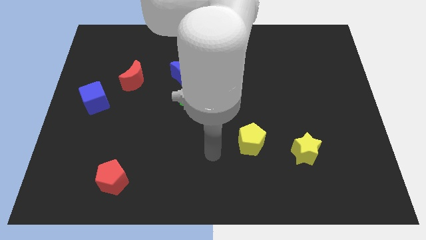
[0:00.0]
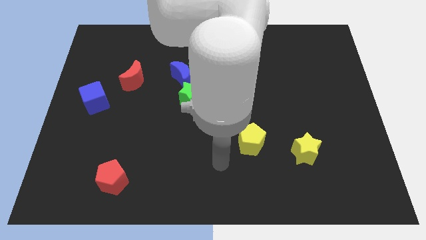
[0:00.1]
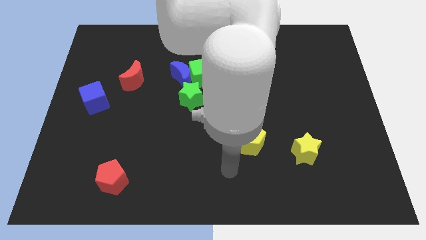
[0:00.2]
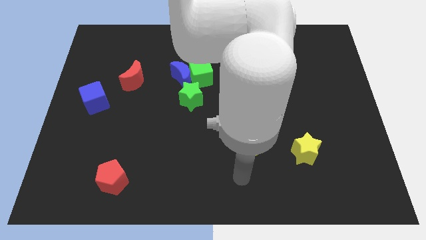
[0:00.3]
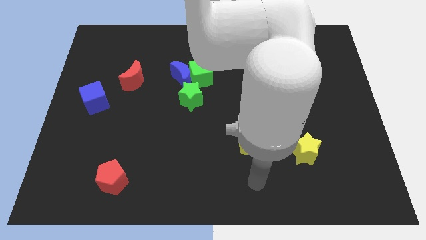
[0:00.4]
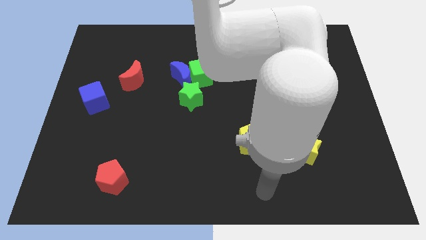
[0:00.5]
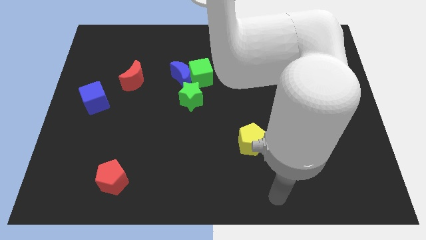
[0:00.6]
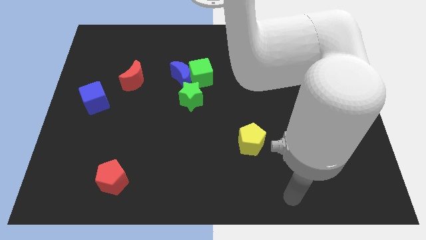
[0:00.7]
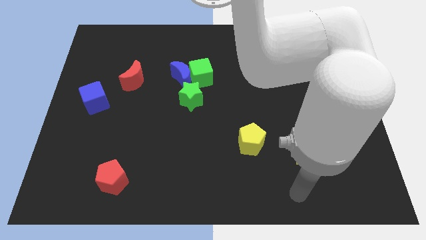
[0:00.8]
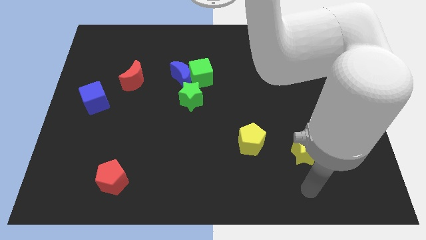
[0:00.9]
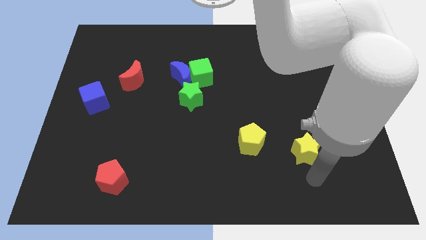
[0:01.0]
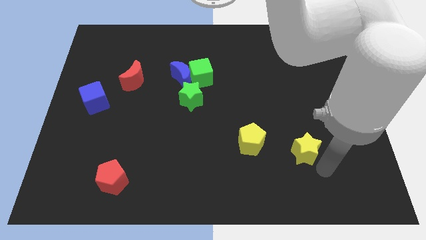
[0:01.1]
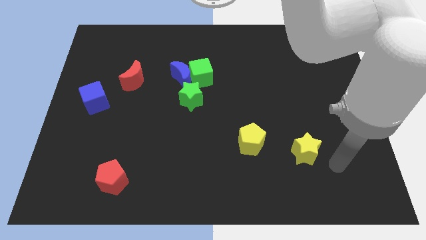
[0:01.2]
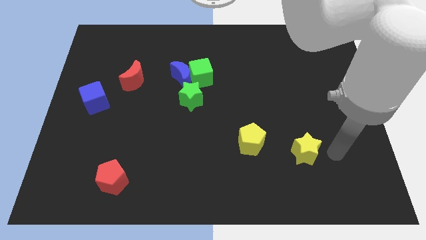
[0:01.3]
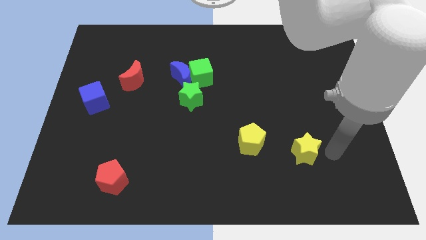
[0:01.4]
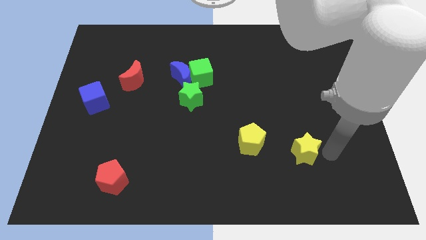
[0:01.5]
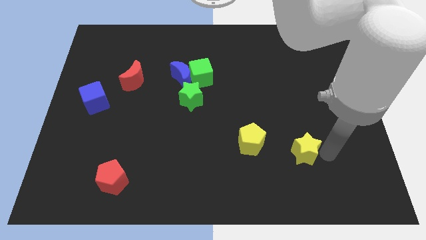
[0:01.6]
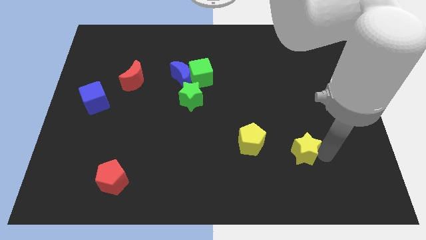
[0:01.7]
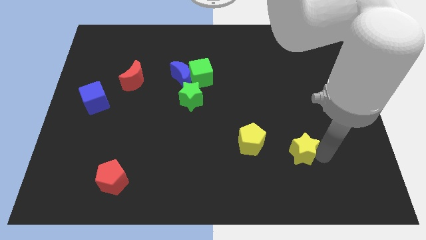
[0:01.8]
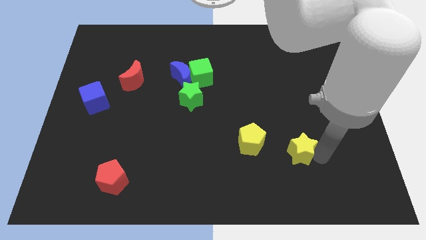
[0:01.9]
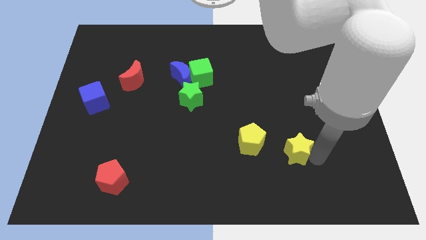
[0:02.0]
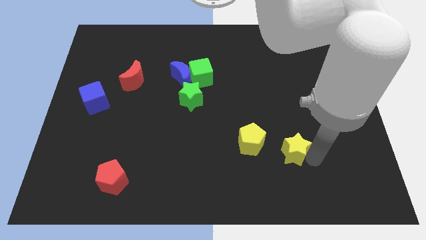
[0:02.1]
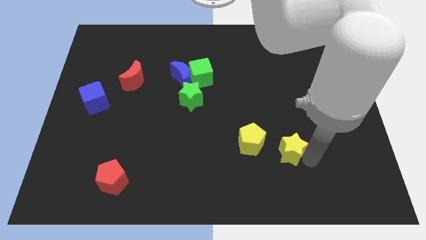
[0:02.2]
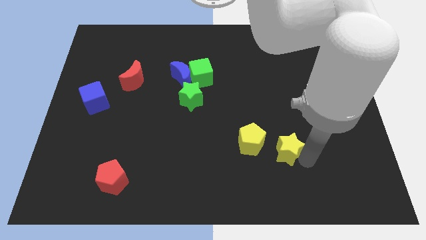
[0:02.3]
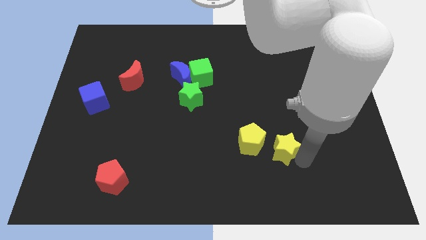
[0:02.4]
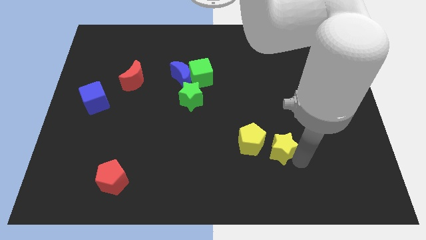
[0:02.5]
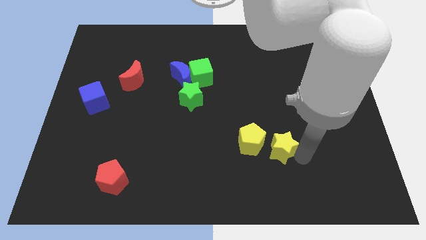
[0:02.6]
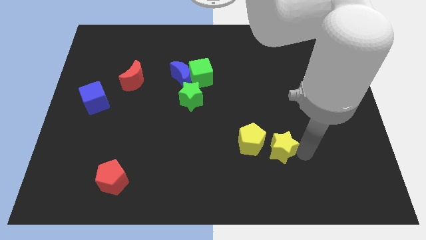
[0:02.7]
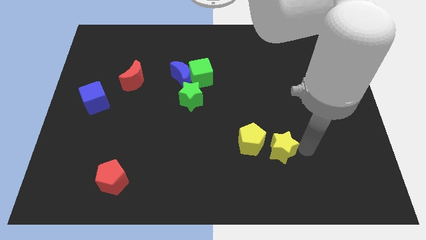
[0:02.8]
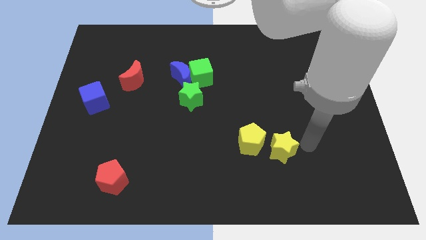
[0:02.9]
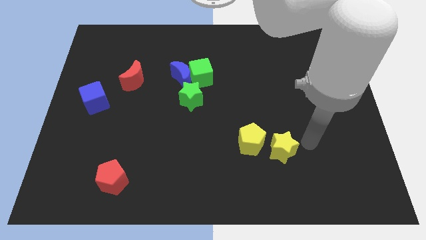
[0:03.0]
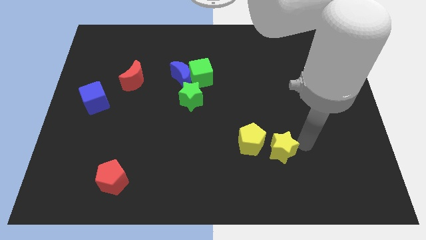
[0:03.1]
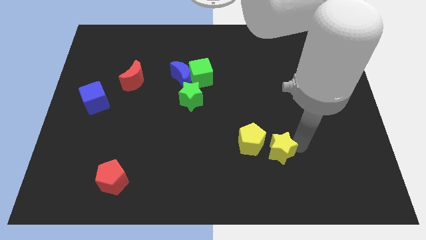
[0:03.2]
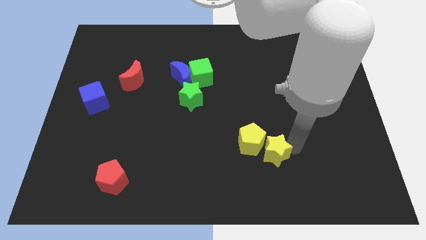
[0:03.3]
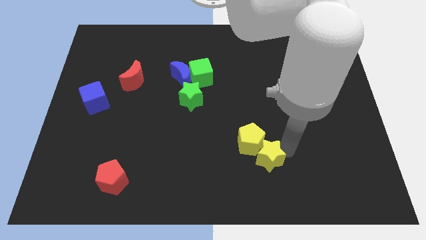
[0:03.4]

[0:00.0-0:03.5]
slide the yellow star left slightly

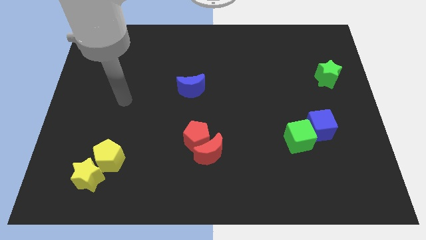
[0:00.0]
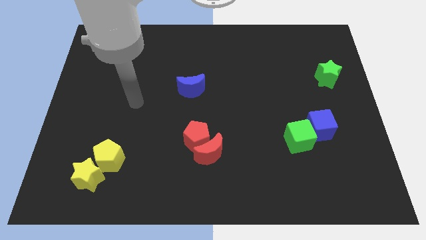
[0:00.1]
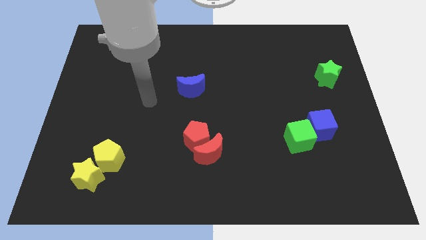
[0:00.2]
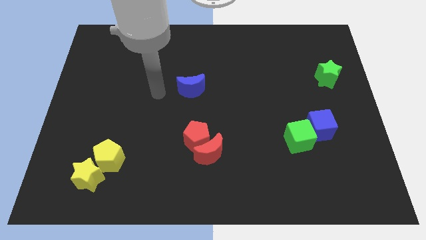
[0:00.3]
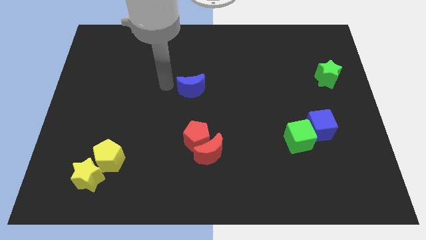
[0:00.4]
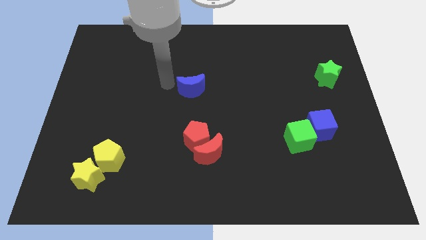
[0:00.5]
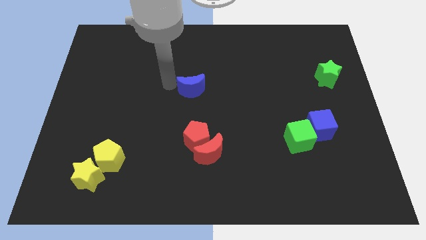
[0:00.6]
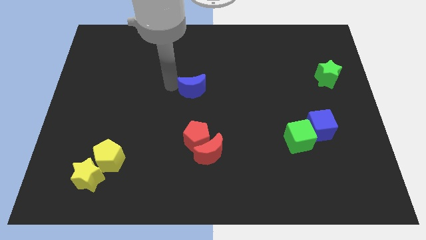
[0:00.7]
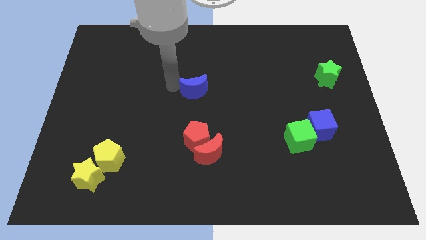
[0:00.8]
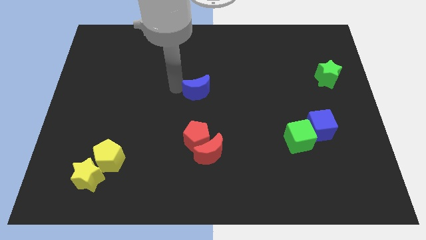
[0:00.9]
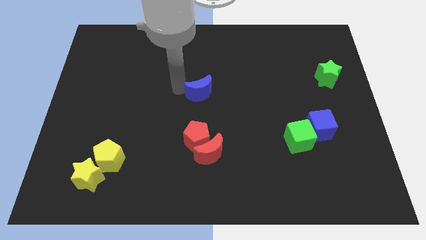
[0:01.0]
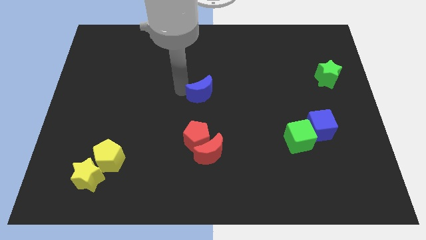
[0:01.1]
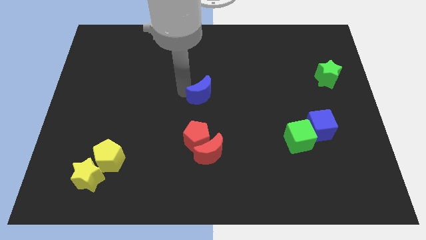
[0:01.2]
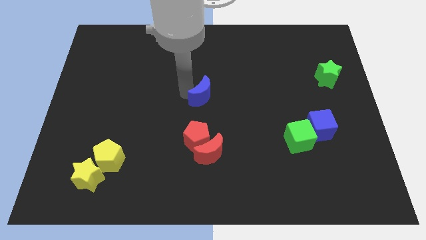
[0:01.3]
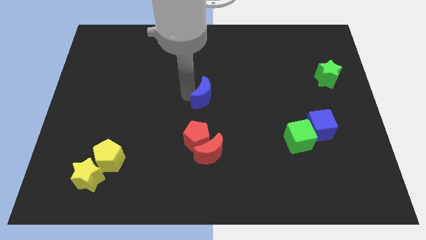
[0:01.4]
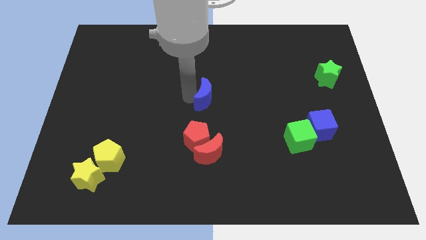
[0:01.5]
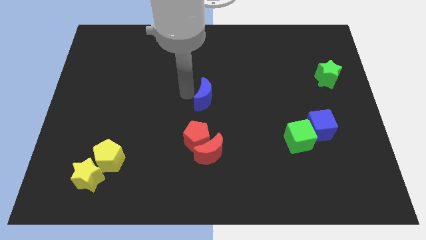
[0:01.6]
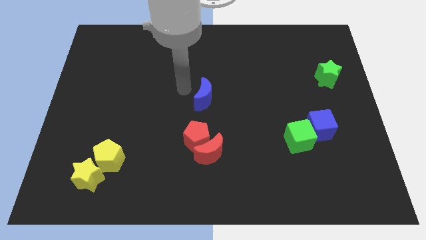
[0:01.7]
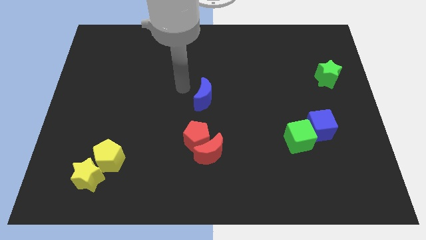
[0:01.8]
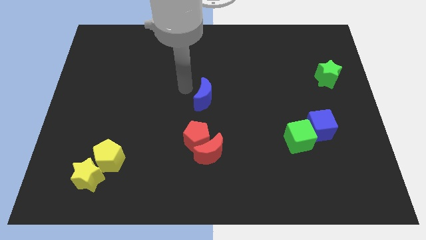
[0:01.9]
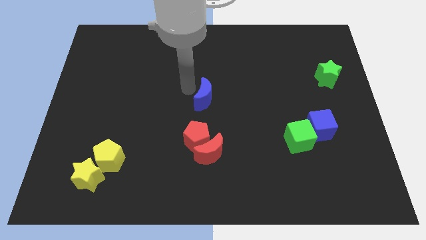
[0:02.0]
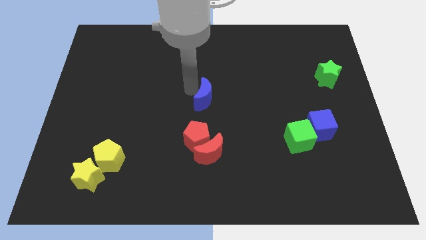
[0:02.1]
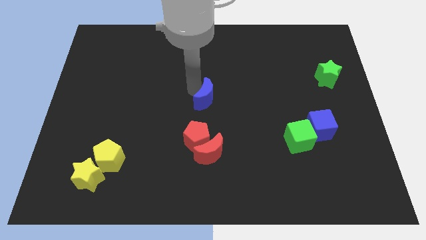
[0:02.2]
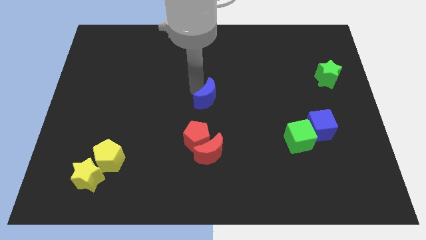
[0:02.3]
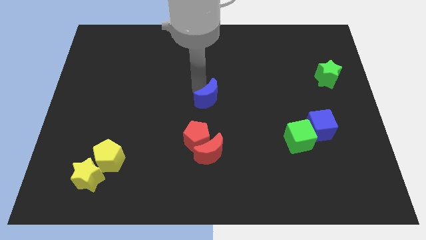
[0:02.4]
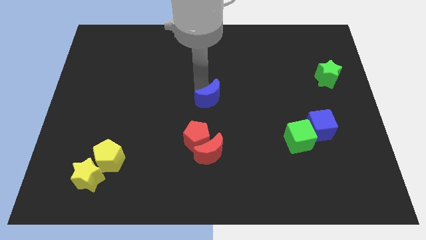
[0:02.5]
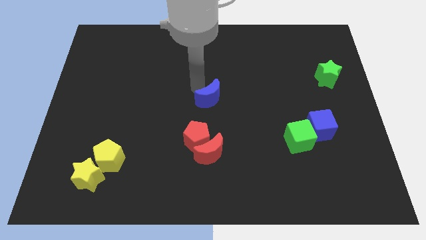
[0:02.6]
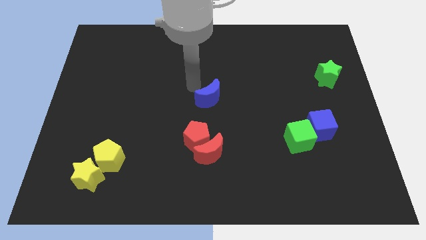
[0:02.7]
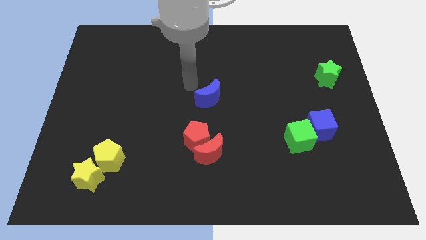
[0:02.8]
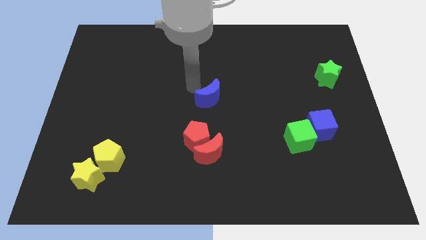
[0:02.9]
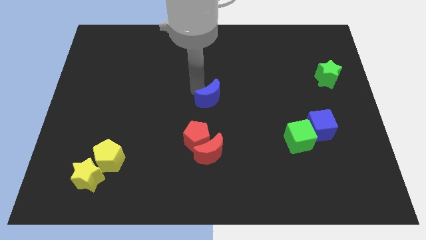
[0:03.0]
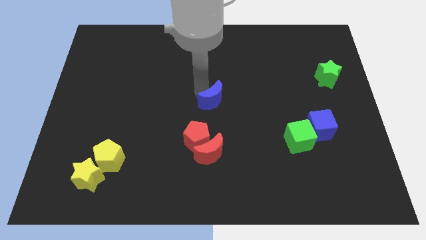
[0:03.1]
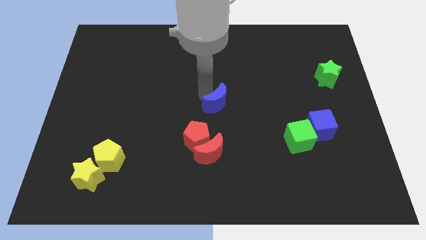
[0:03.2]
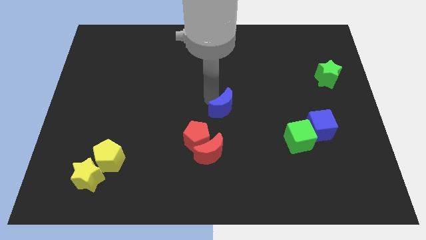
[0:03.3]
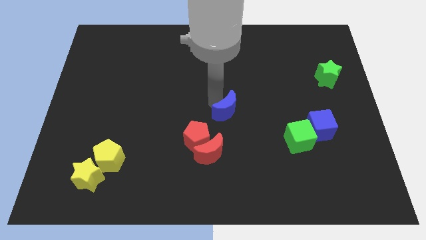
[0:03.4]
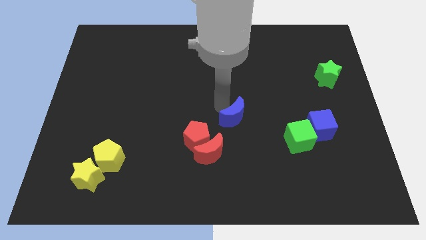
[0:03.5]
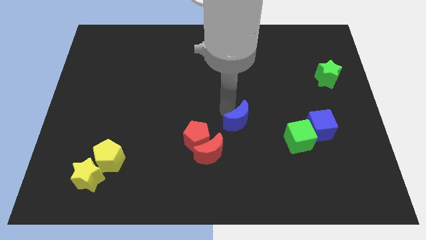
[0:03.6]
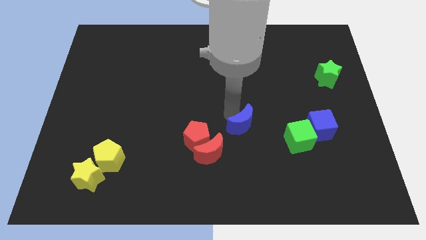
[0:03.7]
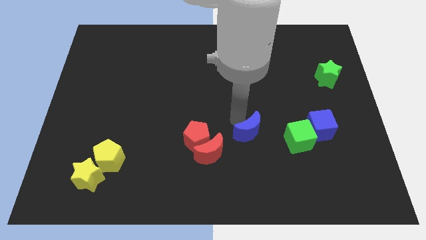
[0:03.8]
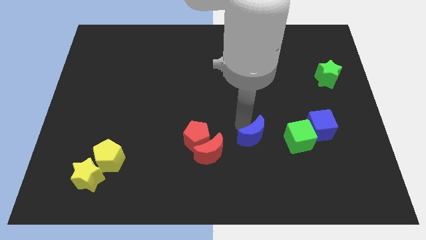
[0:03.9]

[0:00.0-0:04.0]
slide the blue moon diagonally down and to the right

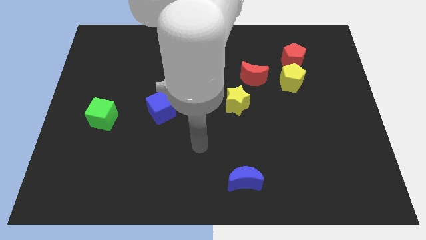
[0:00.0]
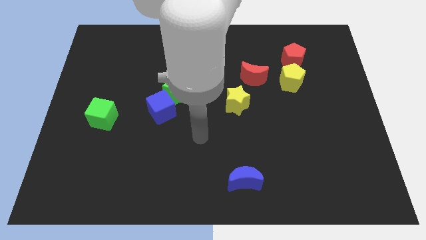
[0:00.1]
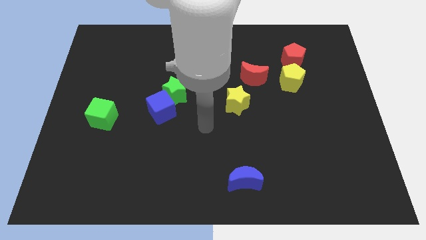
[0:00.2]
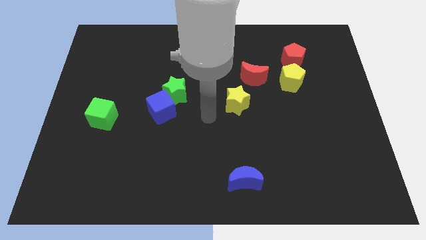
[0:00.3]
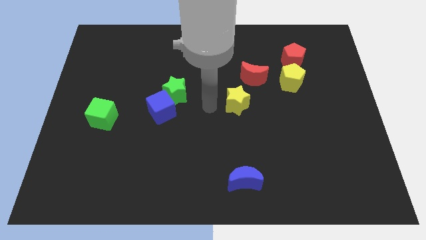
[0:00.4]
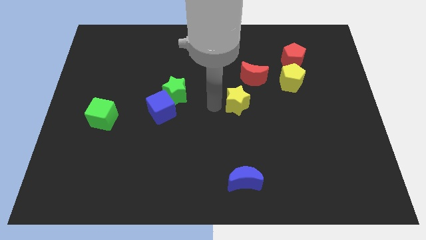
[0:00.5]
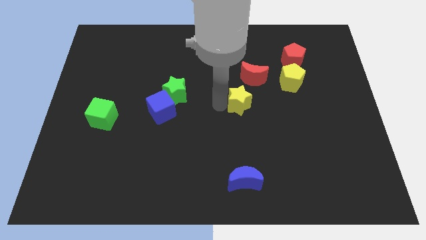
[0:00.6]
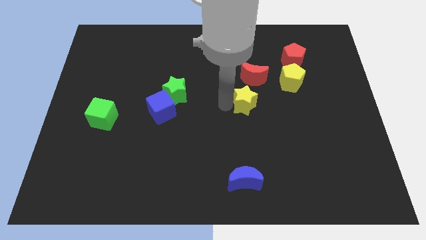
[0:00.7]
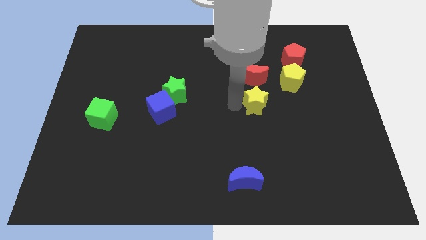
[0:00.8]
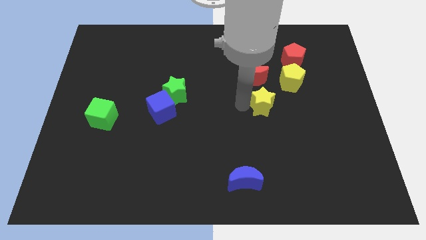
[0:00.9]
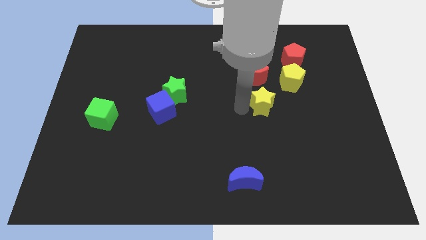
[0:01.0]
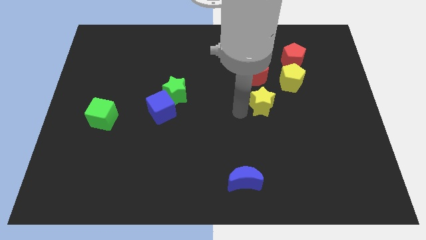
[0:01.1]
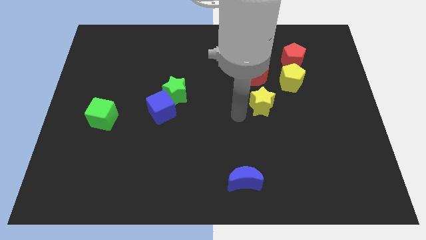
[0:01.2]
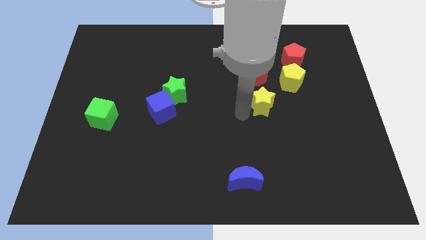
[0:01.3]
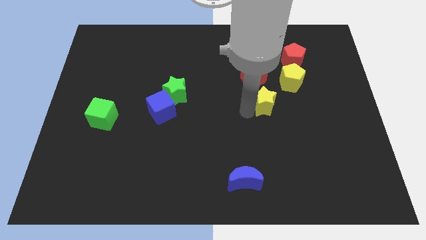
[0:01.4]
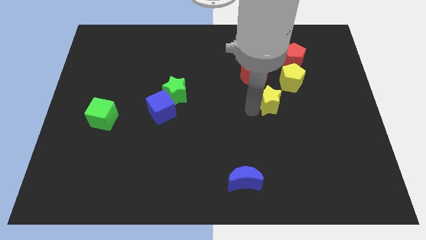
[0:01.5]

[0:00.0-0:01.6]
slightly move the yellow star to the right
